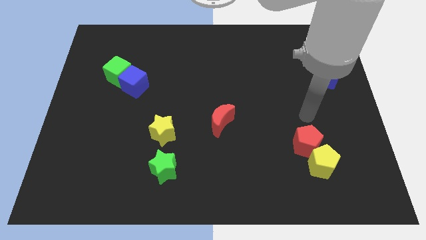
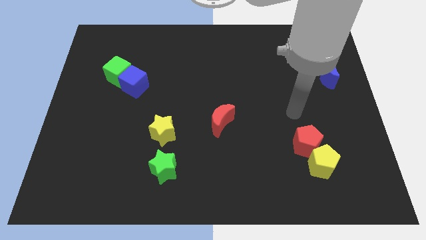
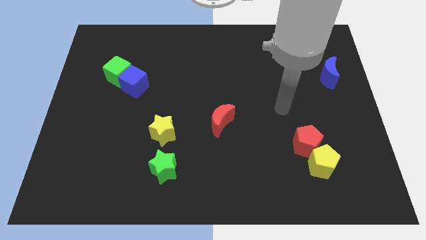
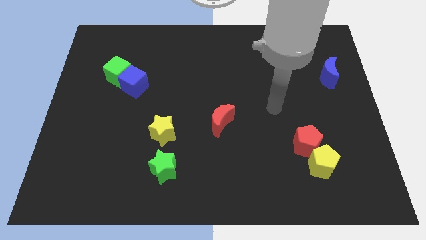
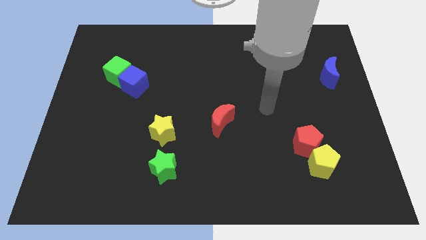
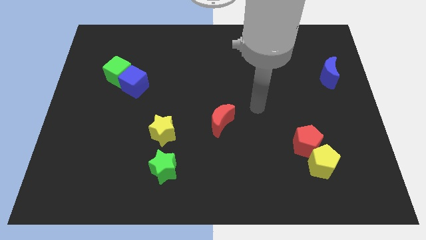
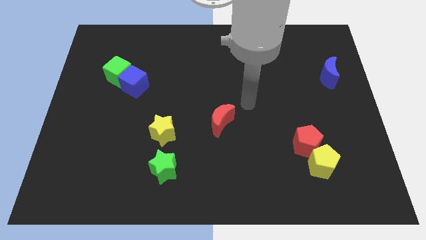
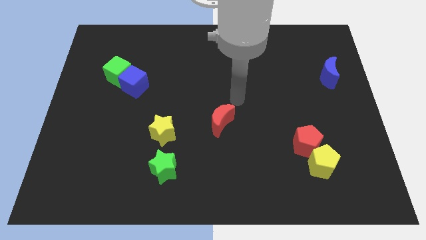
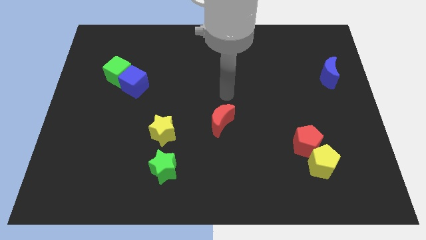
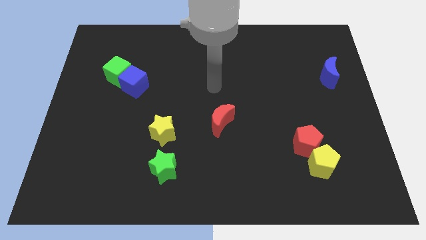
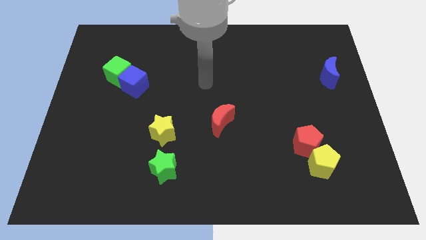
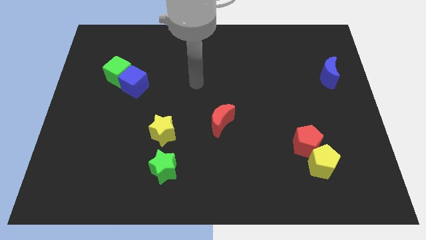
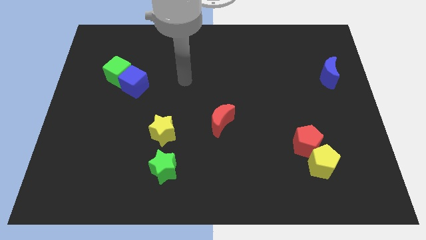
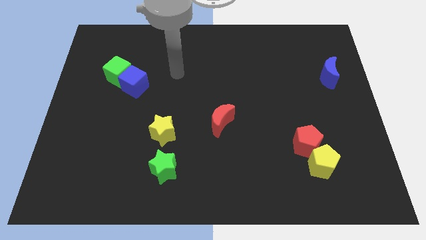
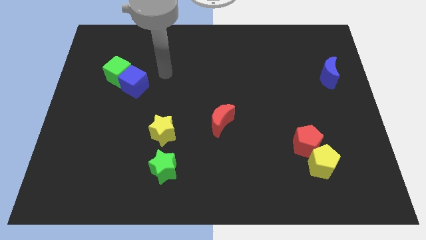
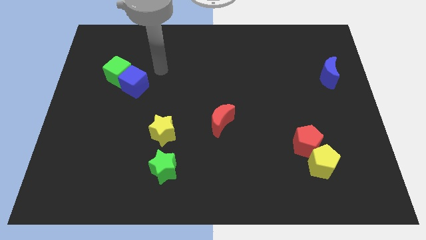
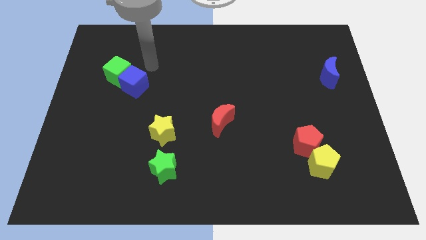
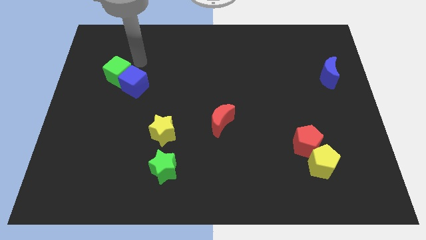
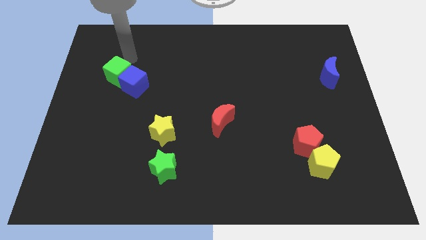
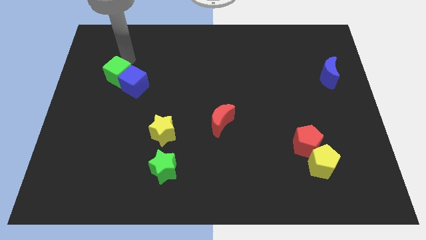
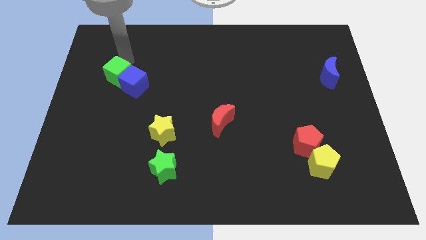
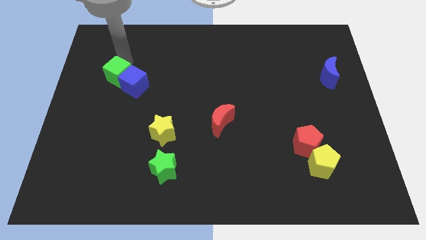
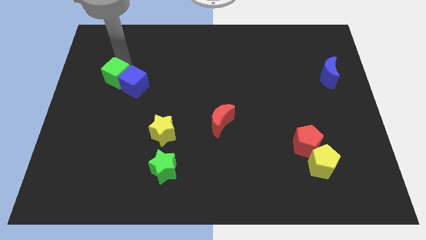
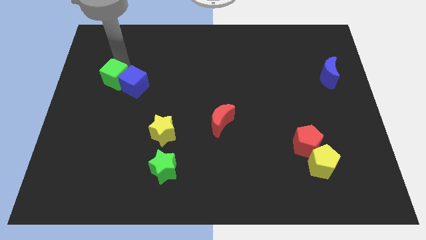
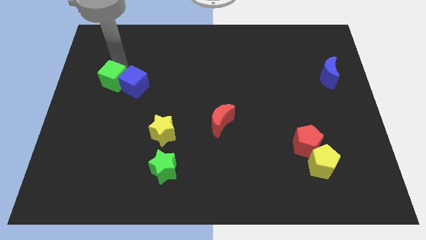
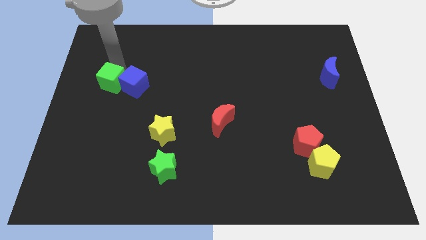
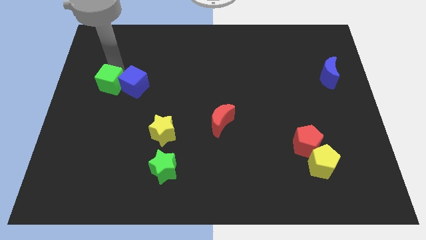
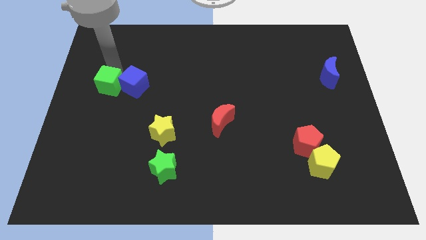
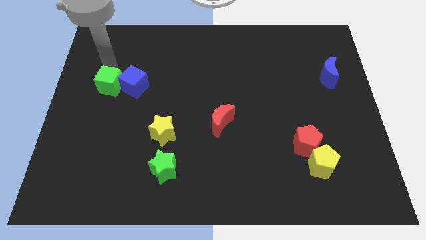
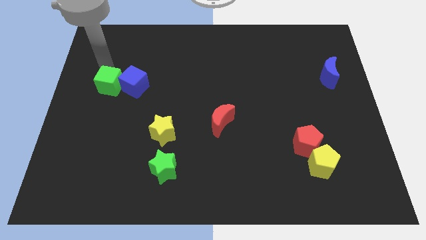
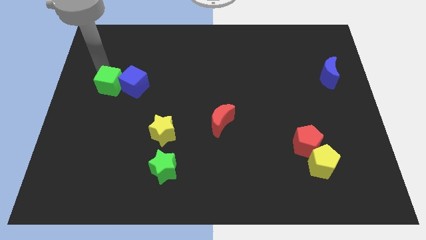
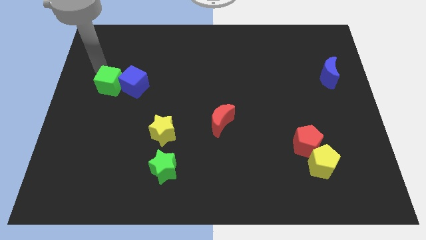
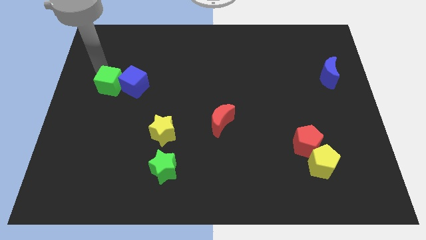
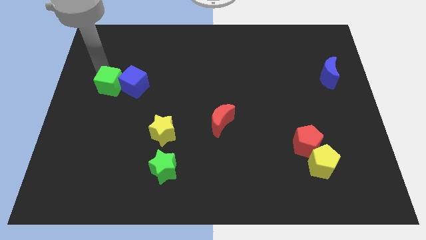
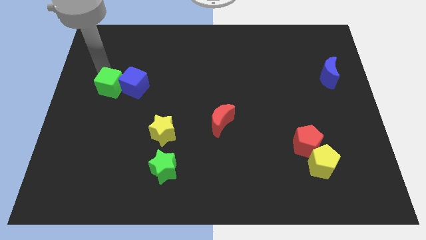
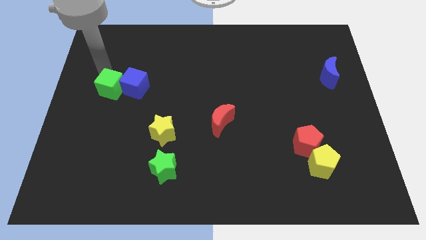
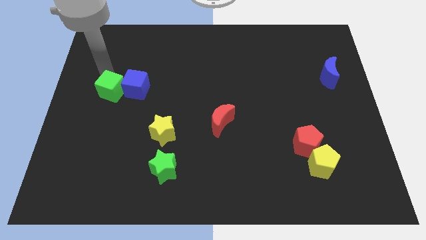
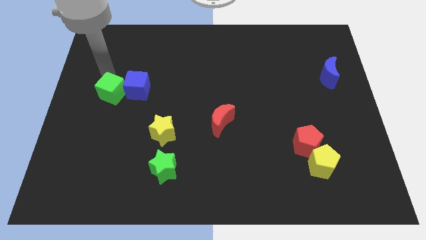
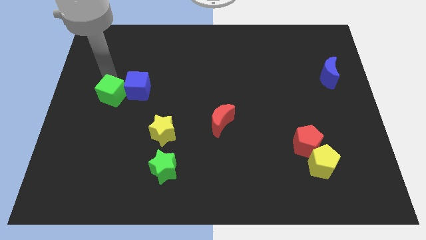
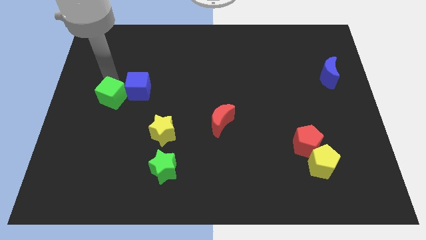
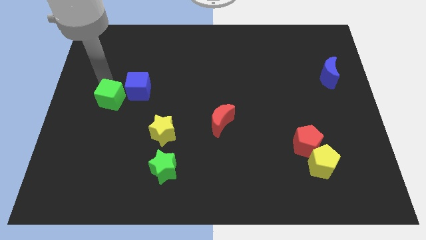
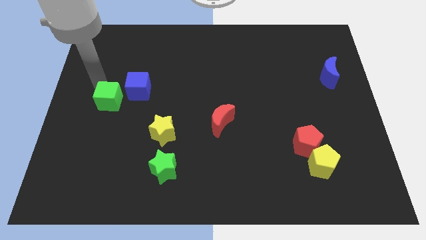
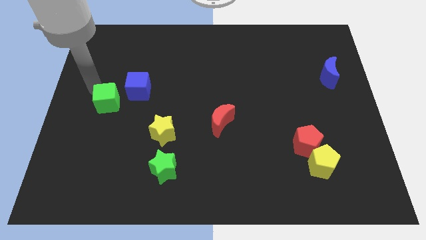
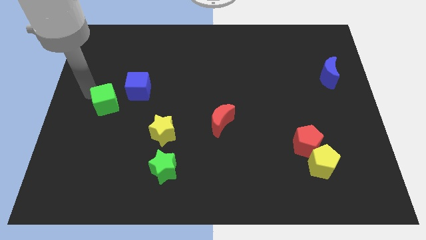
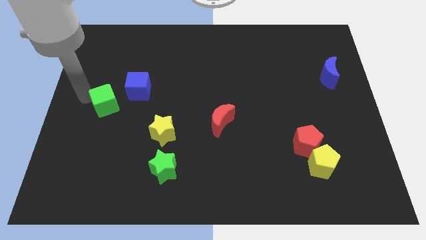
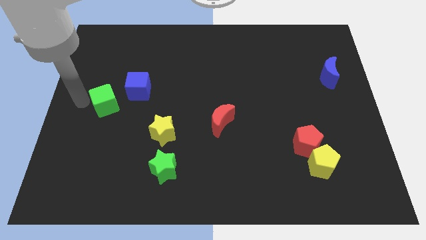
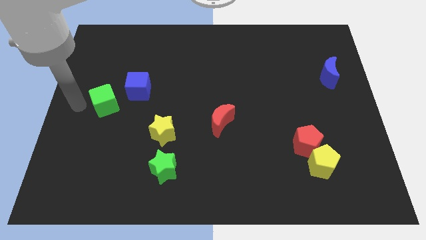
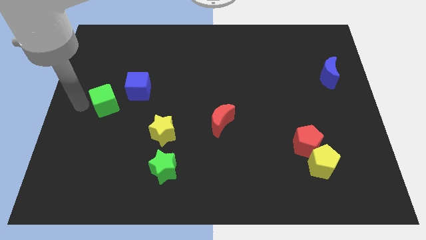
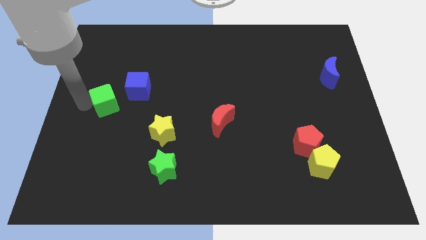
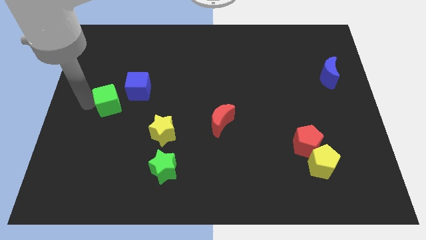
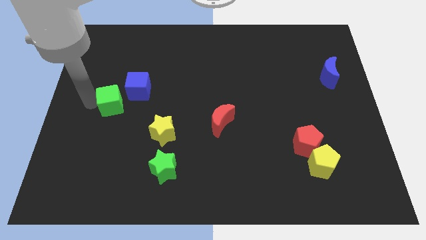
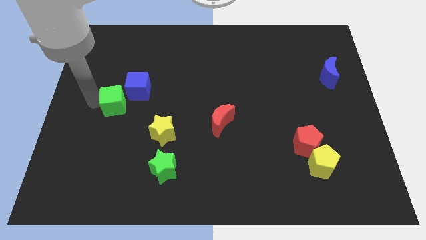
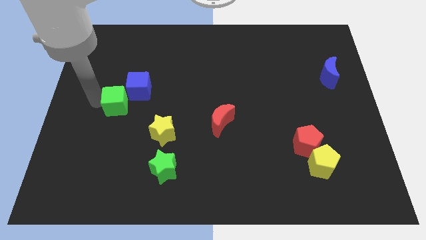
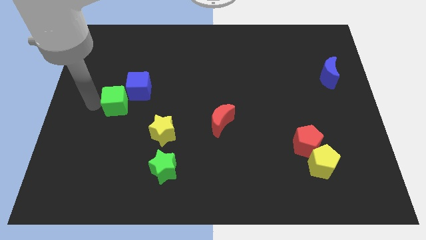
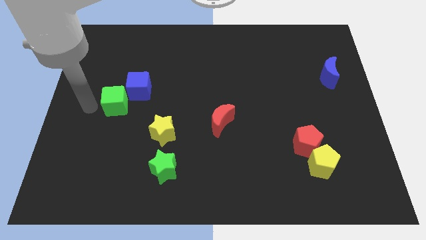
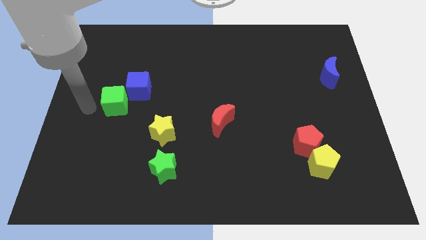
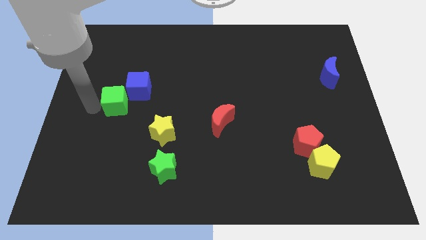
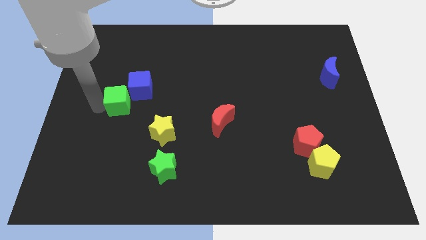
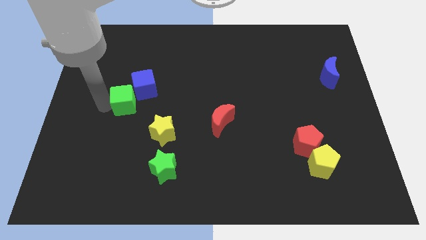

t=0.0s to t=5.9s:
move the green cube downwards and to the right somewhat

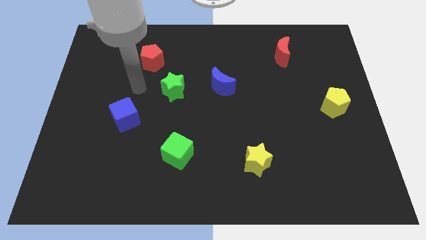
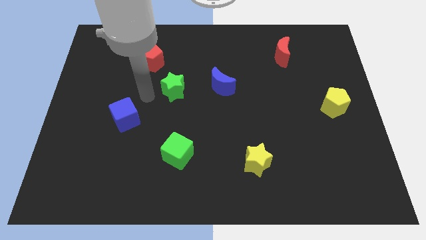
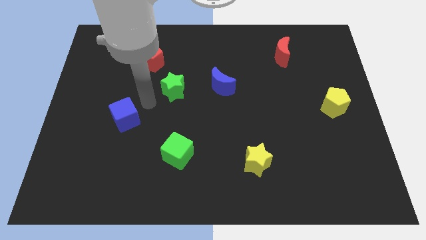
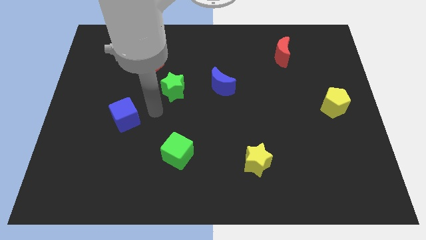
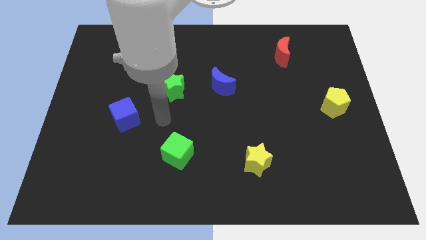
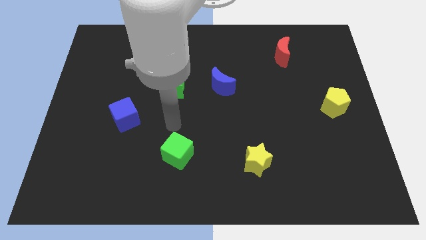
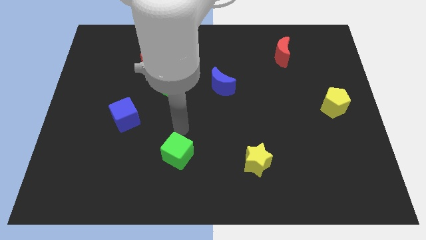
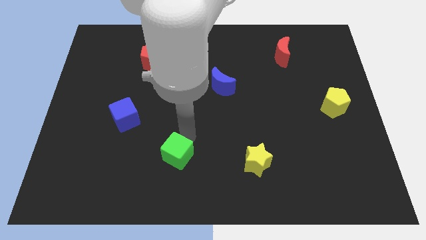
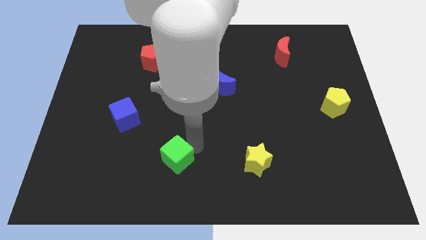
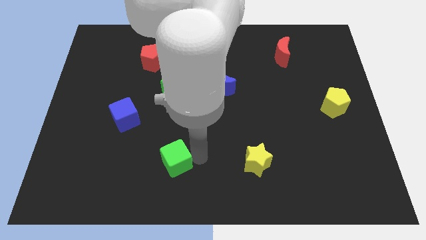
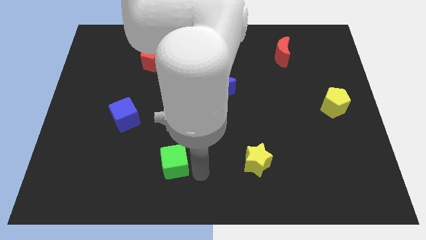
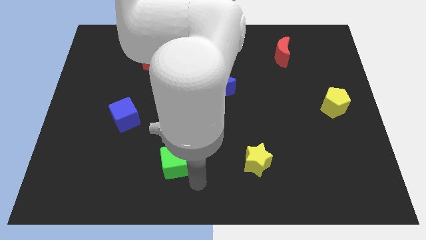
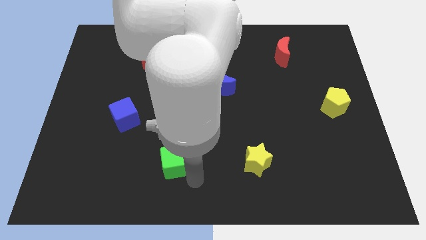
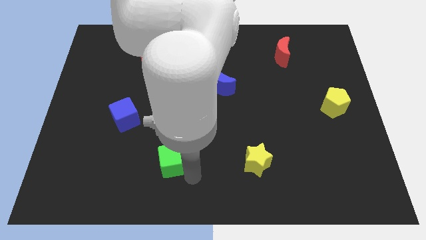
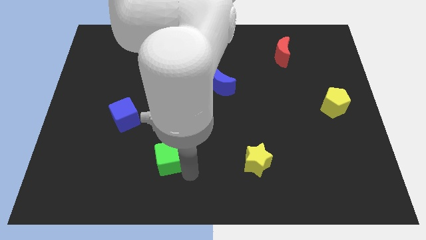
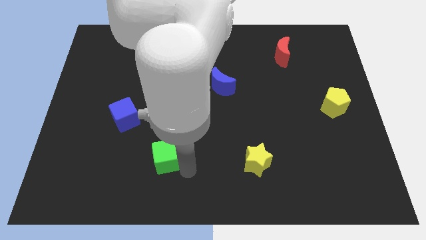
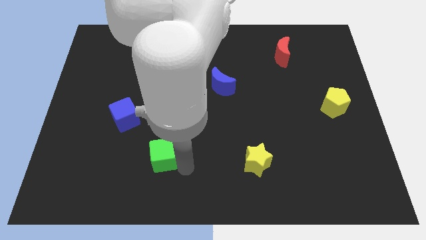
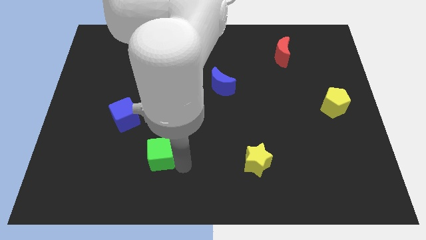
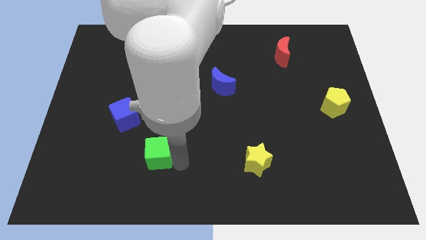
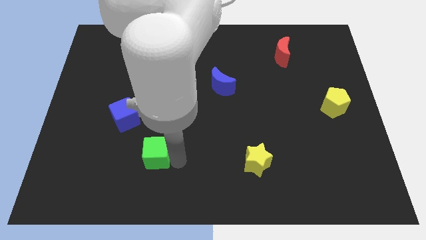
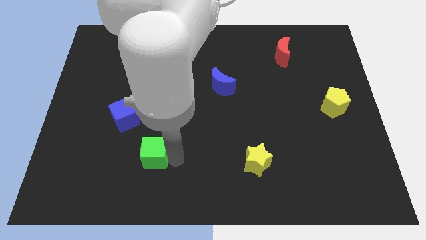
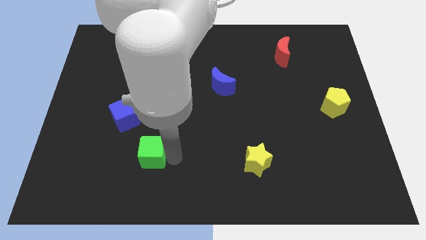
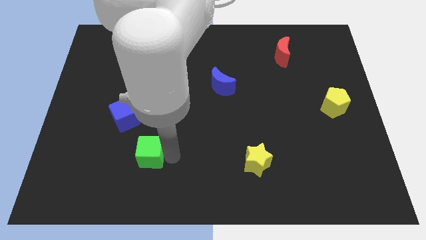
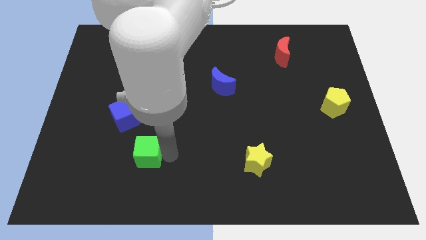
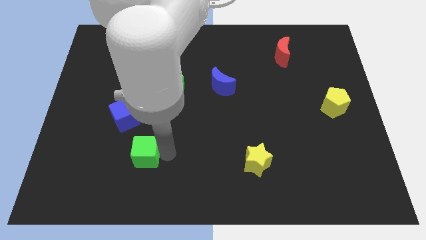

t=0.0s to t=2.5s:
slide the green cube to the left a bit
